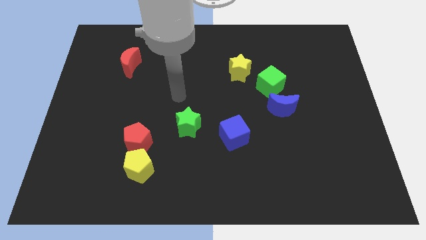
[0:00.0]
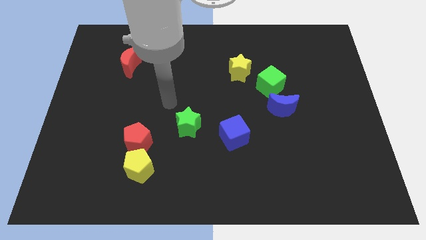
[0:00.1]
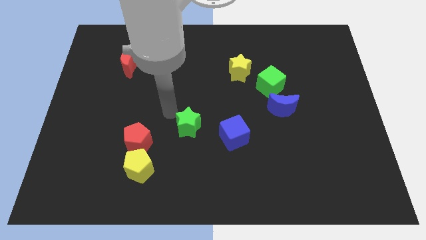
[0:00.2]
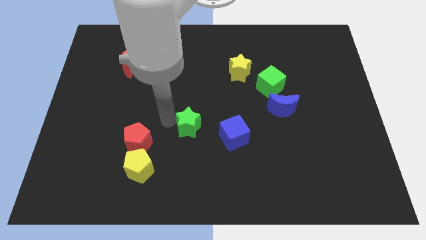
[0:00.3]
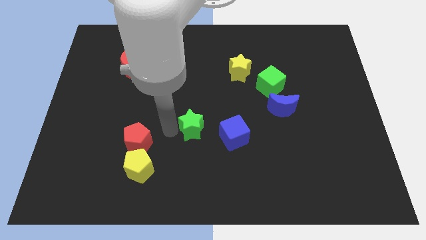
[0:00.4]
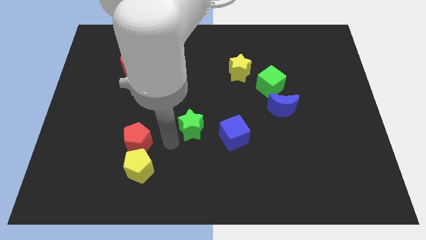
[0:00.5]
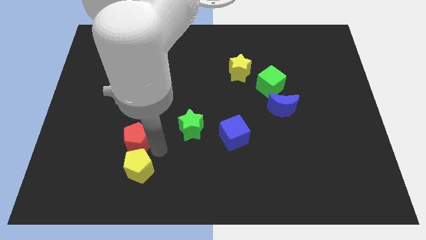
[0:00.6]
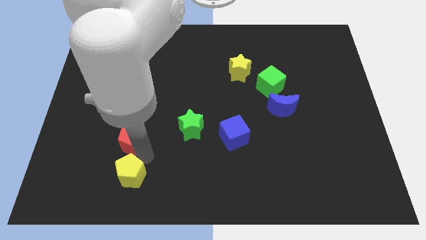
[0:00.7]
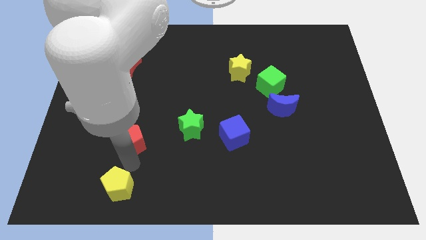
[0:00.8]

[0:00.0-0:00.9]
move the red pentagon away from the yellow pentagon

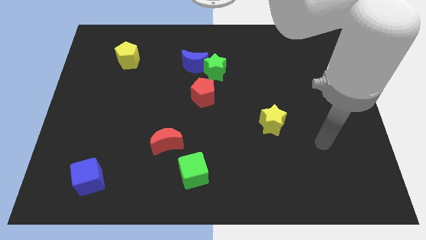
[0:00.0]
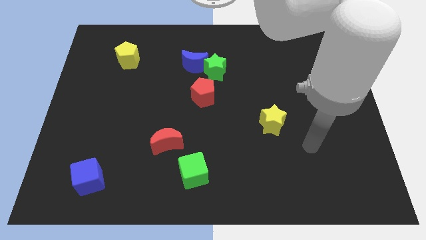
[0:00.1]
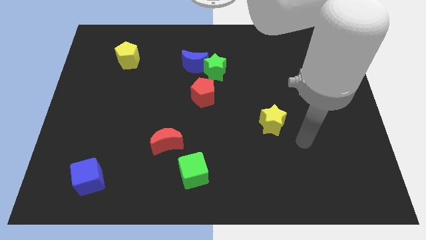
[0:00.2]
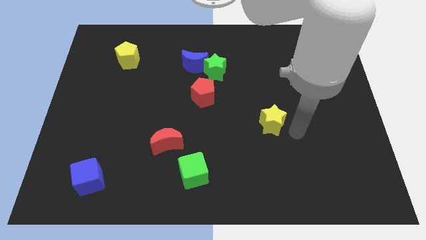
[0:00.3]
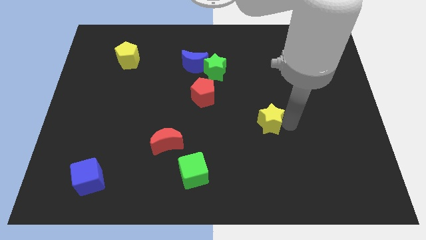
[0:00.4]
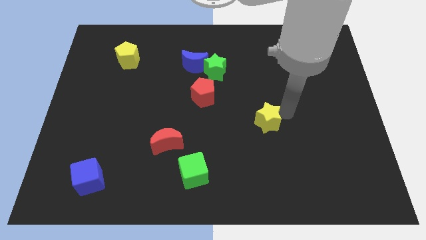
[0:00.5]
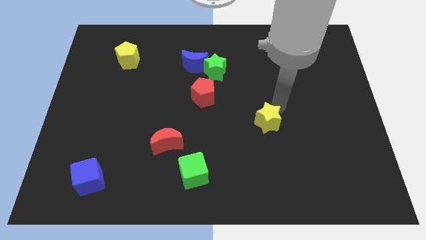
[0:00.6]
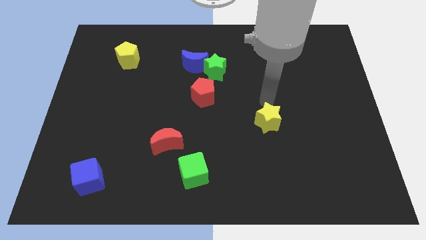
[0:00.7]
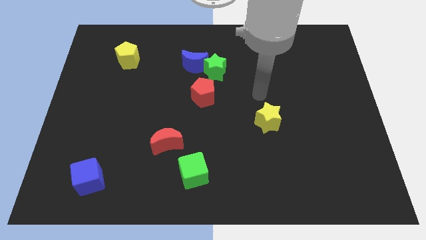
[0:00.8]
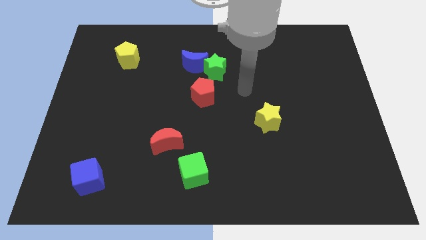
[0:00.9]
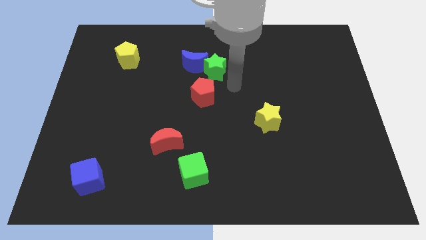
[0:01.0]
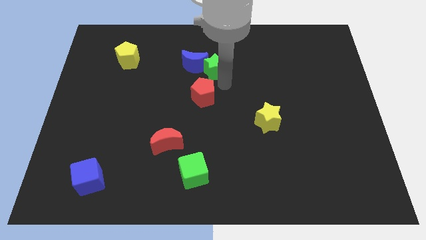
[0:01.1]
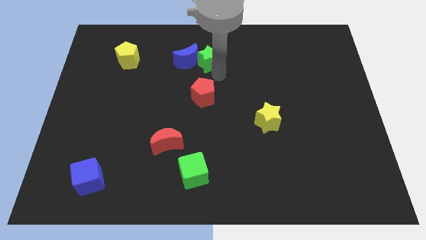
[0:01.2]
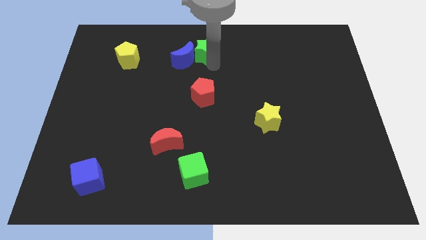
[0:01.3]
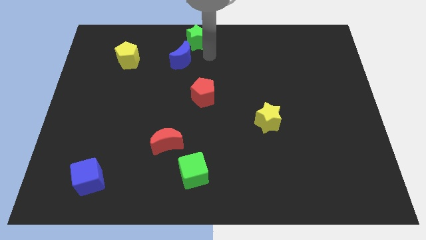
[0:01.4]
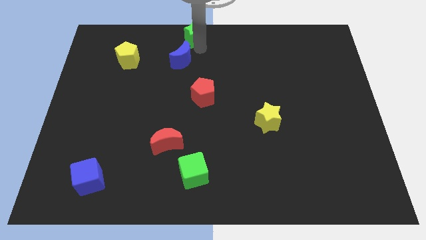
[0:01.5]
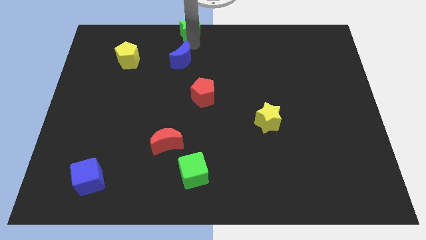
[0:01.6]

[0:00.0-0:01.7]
move the blue moon away from the green star

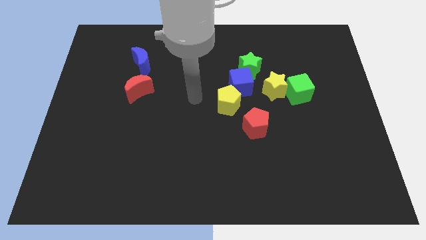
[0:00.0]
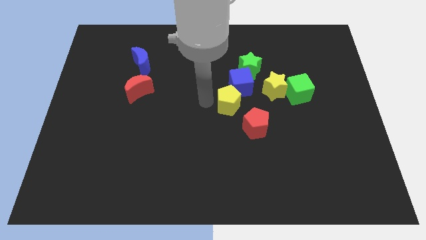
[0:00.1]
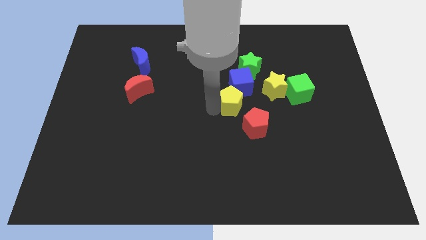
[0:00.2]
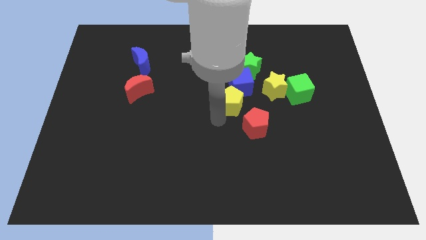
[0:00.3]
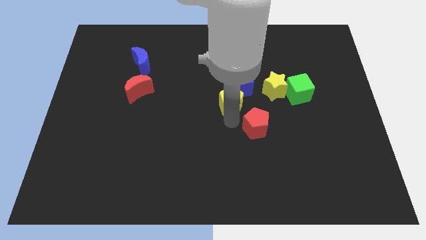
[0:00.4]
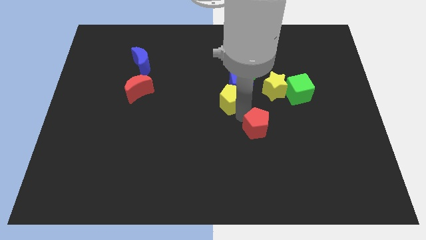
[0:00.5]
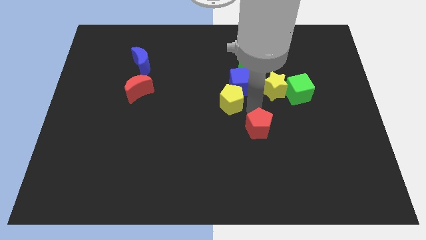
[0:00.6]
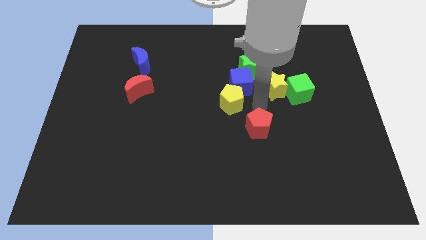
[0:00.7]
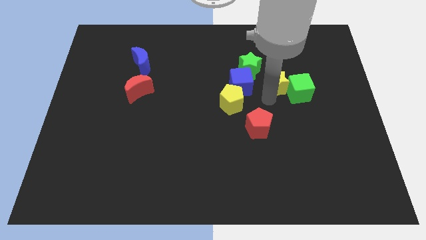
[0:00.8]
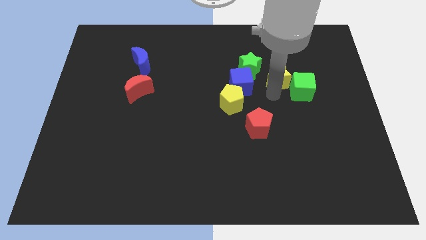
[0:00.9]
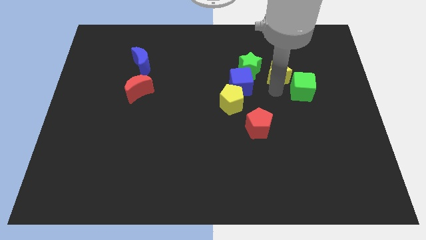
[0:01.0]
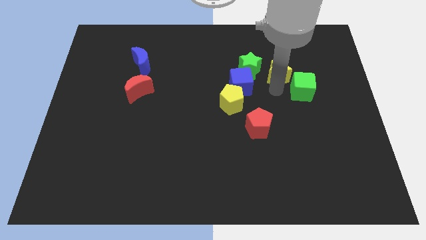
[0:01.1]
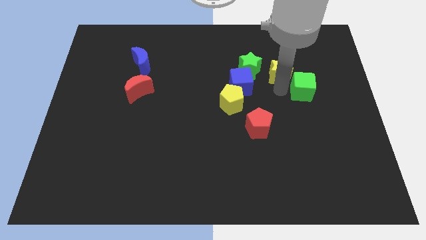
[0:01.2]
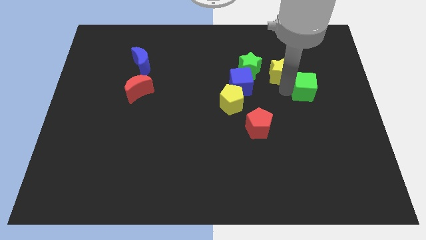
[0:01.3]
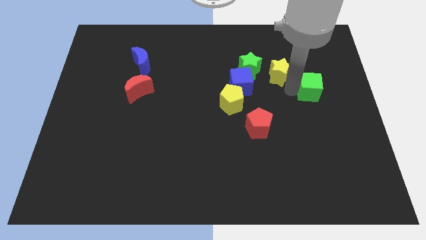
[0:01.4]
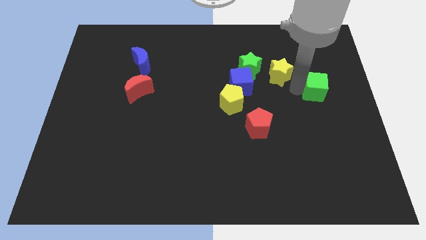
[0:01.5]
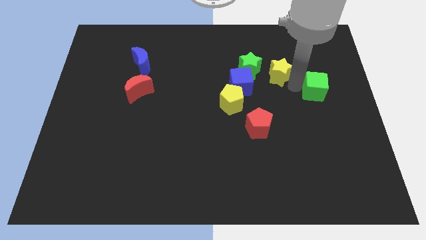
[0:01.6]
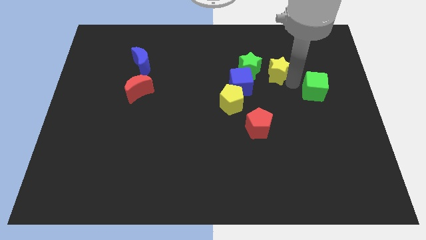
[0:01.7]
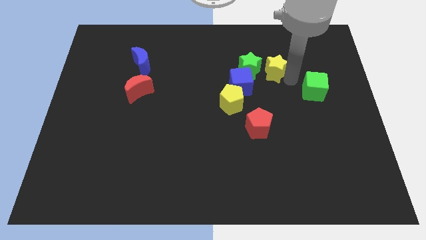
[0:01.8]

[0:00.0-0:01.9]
move the green cube away from the yellow star

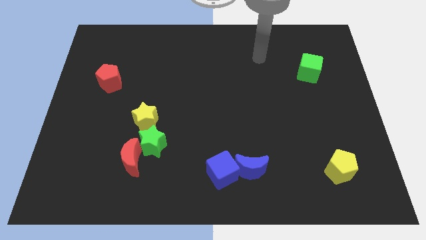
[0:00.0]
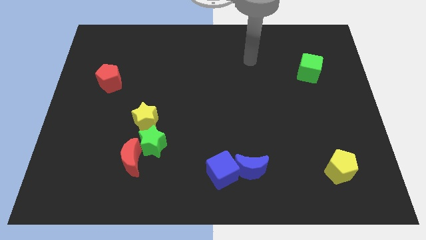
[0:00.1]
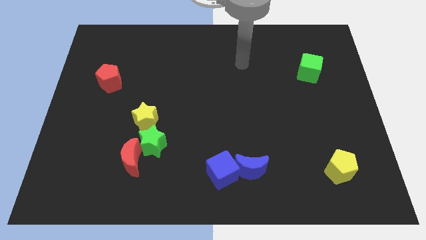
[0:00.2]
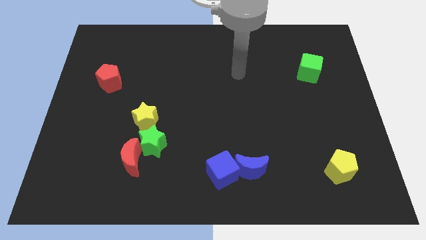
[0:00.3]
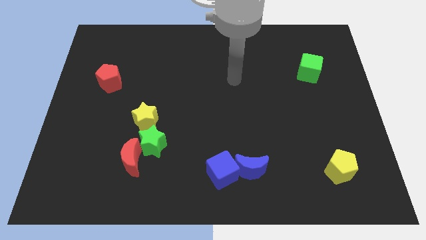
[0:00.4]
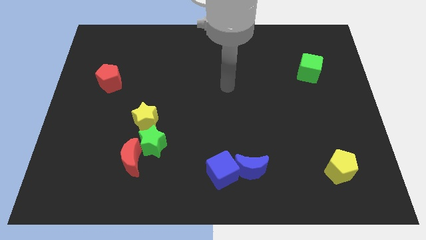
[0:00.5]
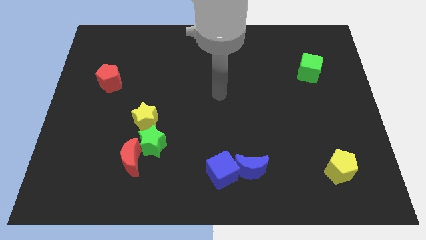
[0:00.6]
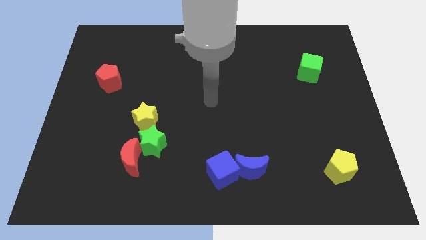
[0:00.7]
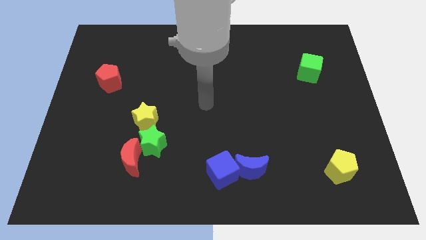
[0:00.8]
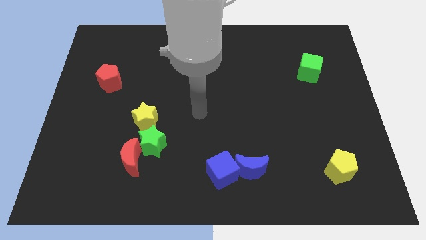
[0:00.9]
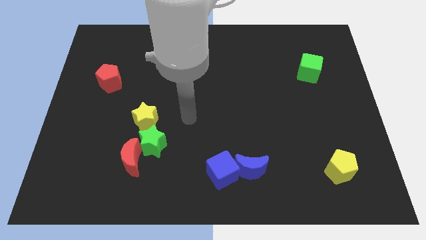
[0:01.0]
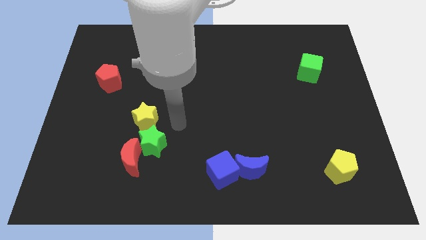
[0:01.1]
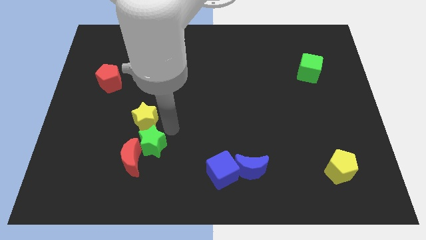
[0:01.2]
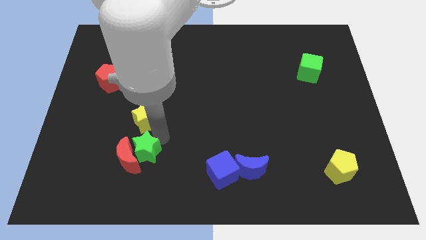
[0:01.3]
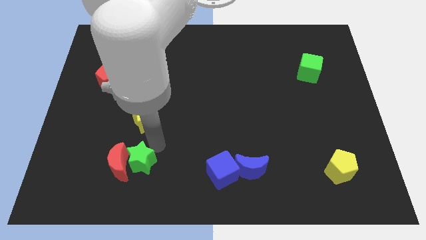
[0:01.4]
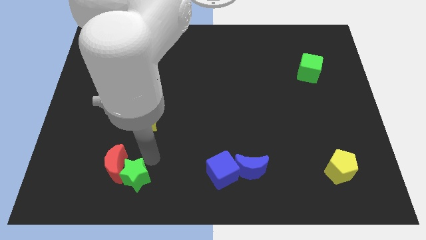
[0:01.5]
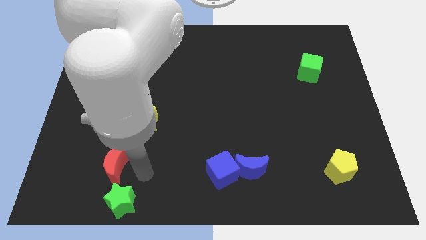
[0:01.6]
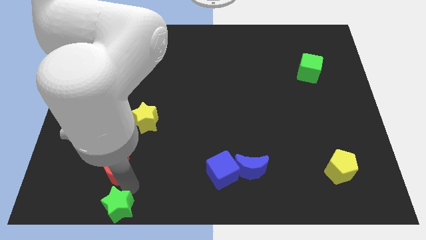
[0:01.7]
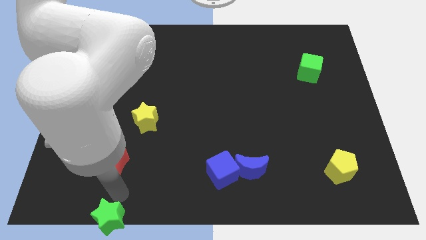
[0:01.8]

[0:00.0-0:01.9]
move the red moon away from the green star

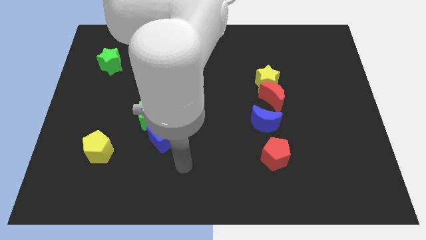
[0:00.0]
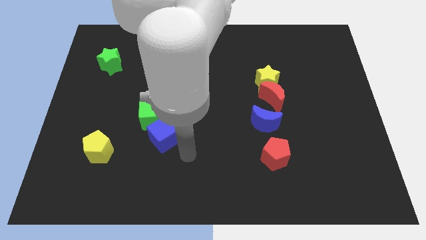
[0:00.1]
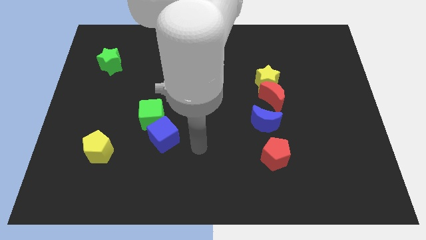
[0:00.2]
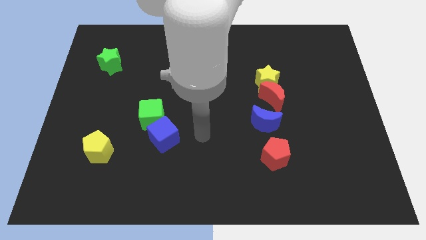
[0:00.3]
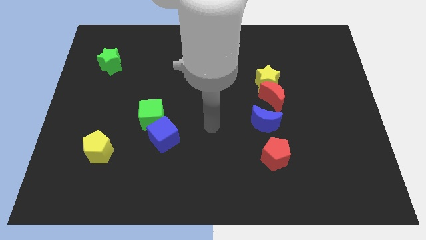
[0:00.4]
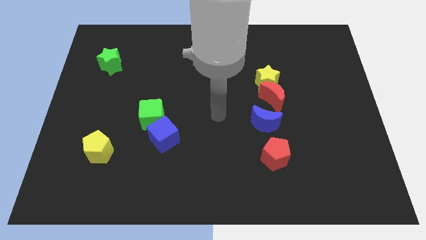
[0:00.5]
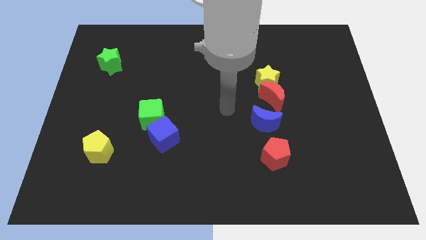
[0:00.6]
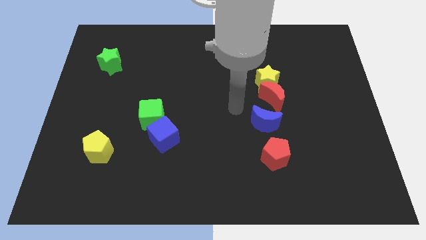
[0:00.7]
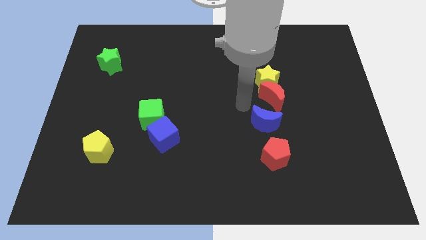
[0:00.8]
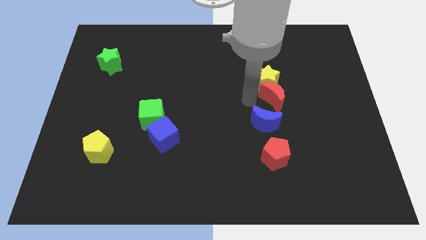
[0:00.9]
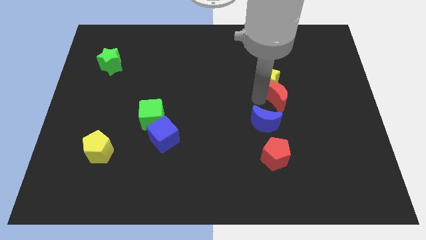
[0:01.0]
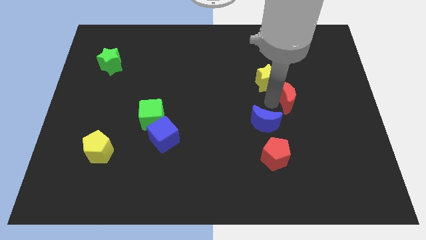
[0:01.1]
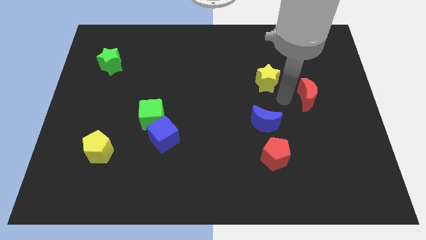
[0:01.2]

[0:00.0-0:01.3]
move the yellow star away from the red moon

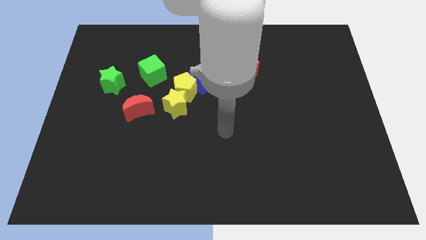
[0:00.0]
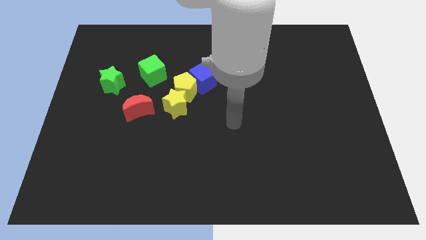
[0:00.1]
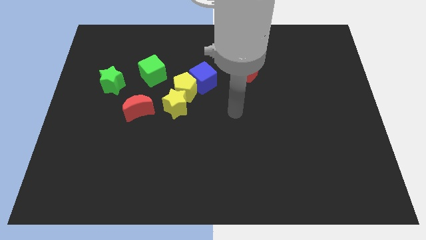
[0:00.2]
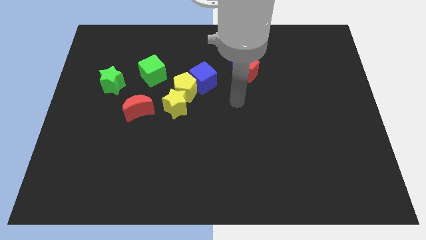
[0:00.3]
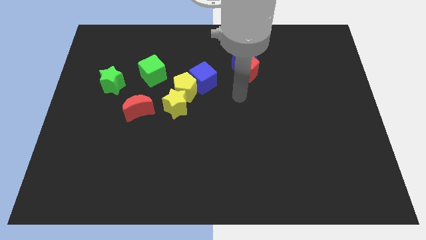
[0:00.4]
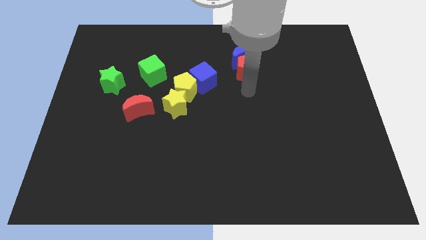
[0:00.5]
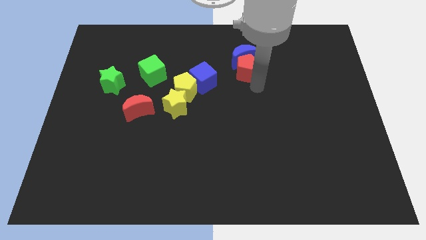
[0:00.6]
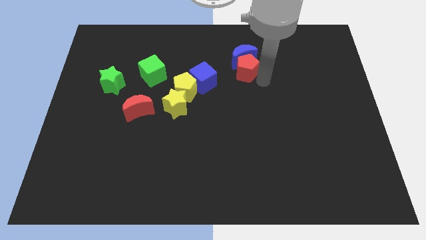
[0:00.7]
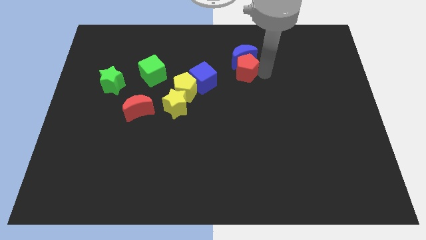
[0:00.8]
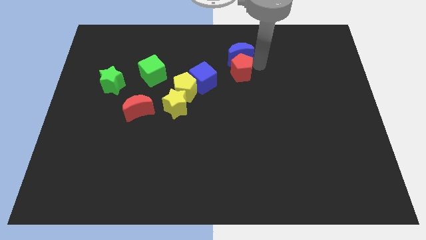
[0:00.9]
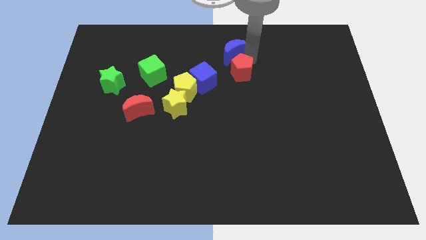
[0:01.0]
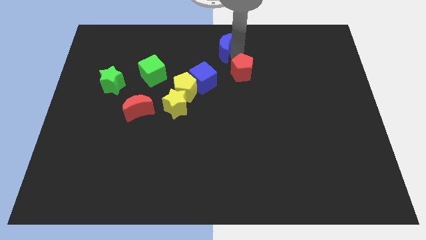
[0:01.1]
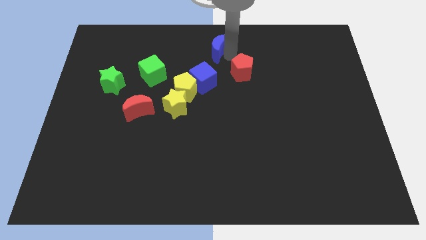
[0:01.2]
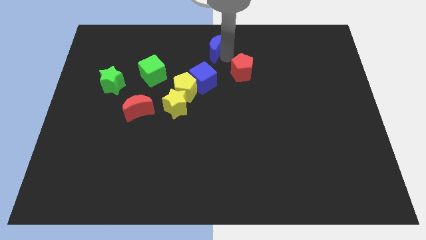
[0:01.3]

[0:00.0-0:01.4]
separate the red pentagon from the blue moon
